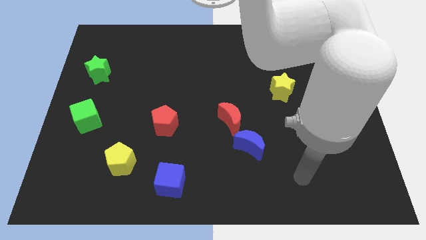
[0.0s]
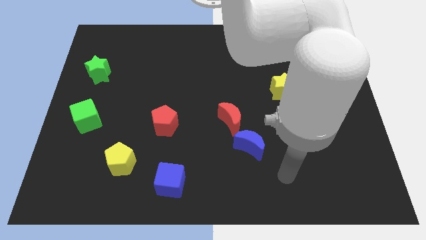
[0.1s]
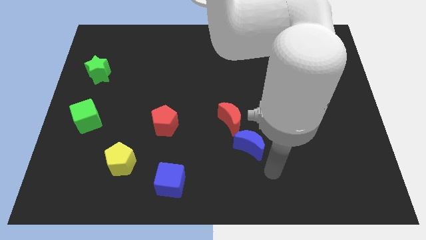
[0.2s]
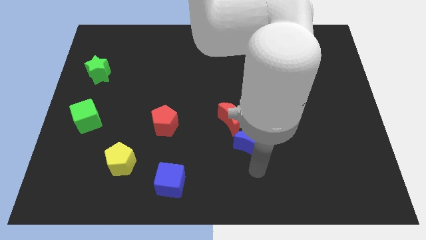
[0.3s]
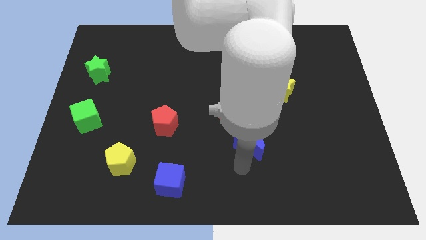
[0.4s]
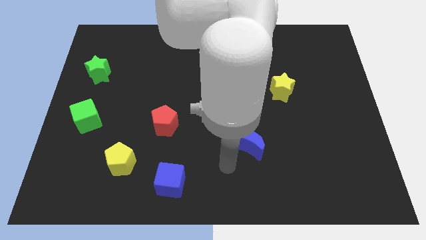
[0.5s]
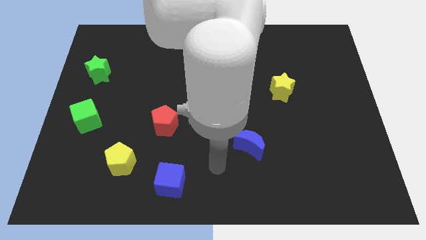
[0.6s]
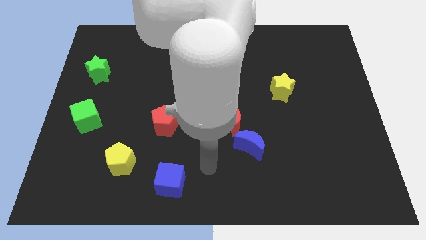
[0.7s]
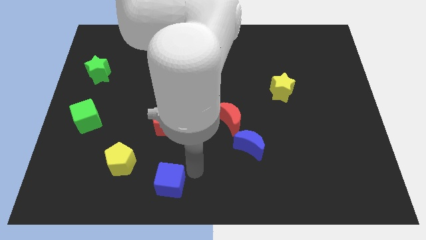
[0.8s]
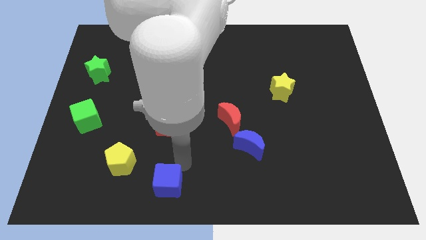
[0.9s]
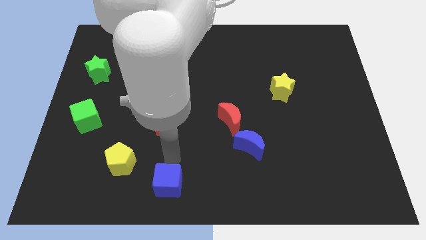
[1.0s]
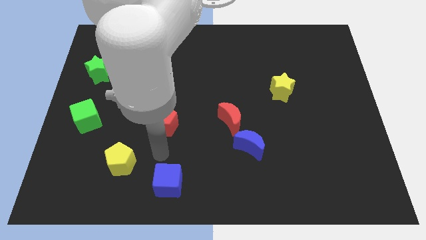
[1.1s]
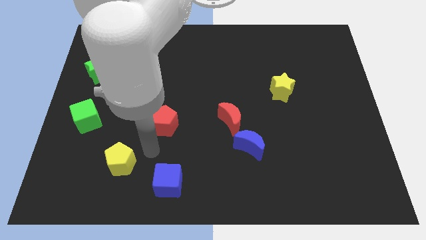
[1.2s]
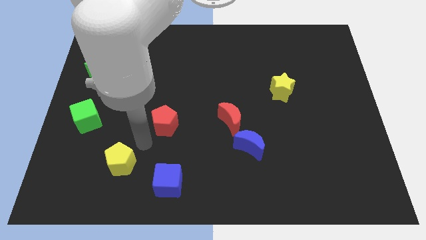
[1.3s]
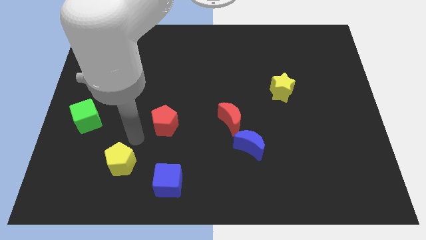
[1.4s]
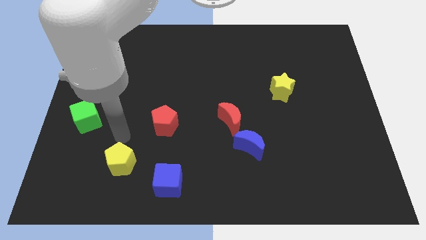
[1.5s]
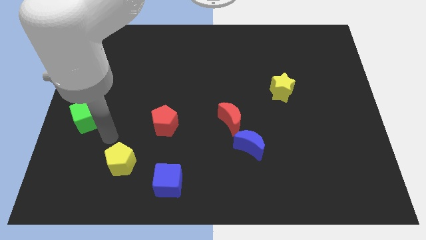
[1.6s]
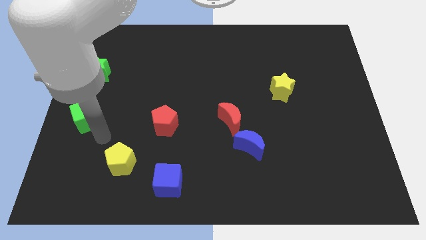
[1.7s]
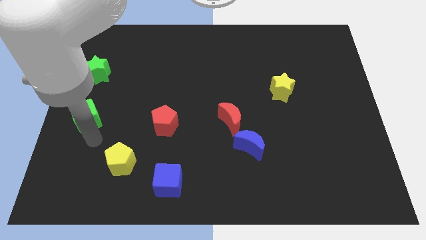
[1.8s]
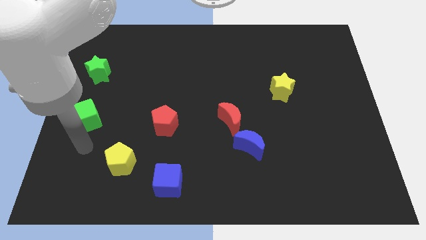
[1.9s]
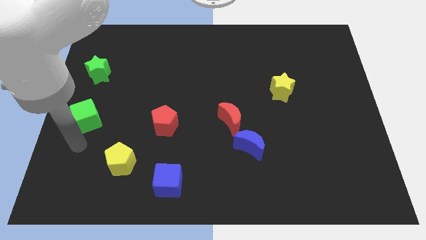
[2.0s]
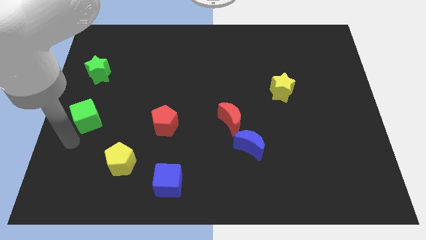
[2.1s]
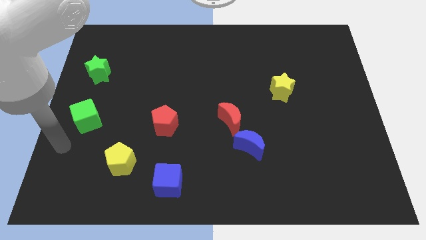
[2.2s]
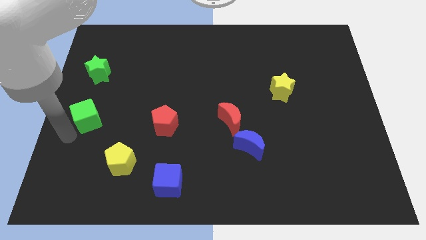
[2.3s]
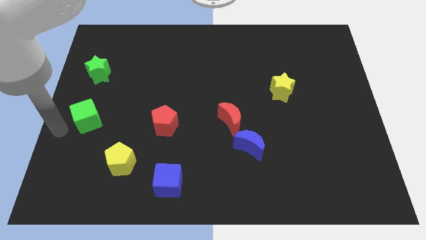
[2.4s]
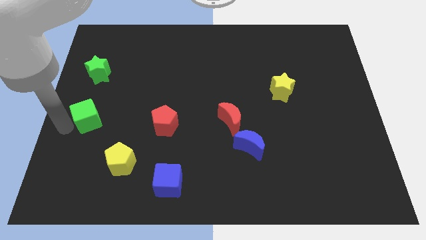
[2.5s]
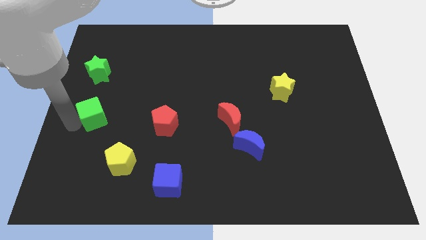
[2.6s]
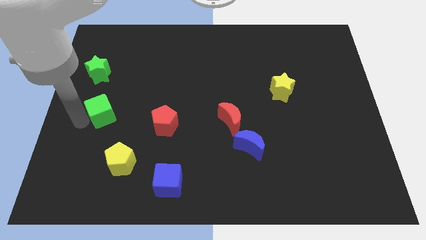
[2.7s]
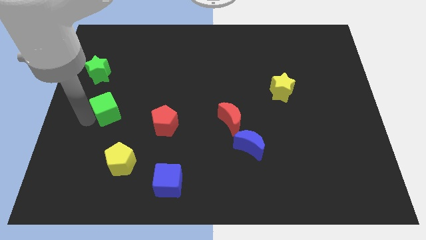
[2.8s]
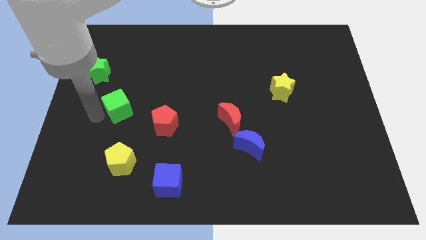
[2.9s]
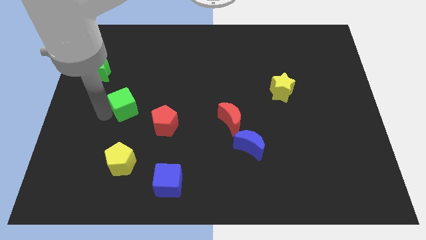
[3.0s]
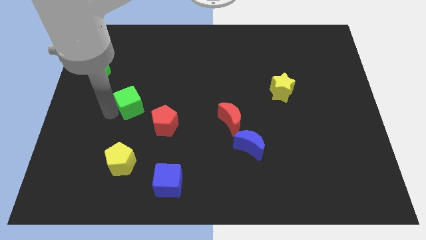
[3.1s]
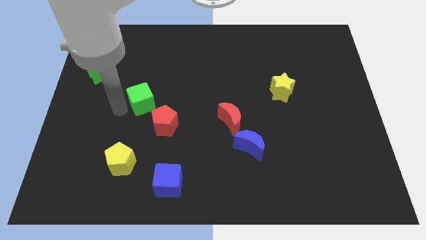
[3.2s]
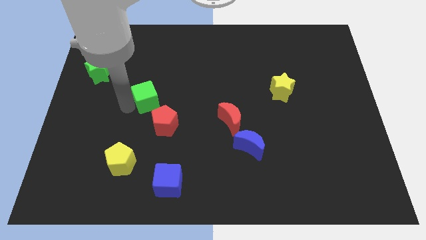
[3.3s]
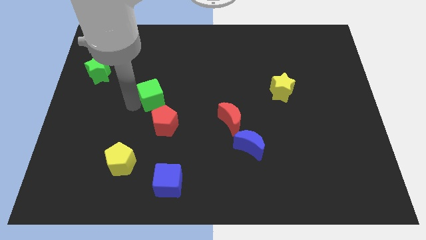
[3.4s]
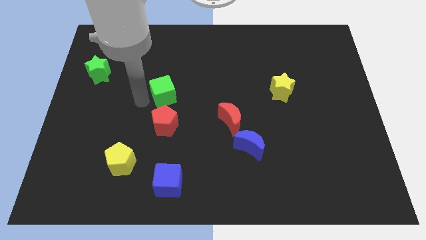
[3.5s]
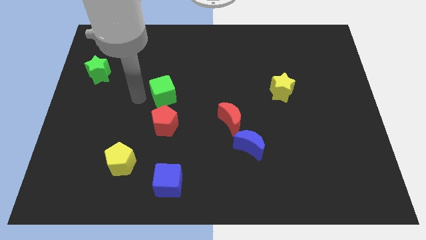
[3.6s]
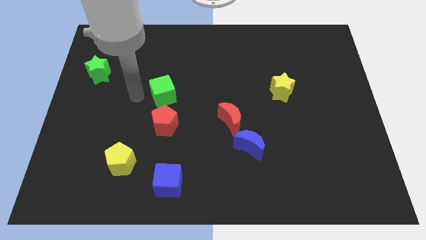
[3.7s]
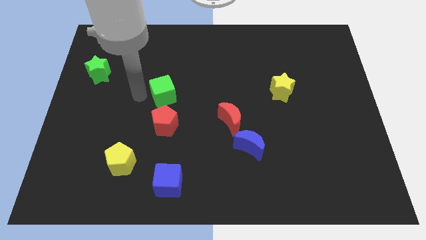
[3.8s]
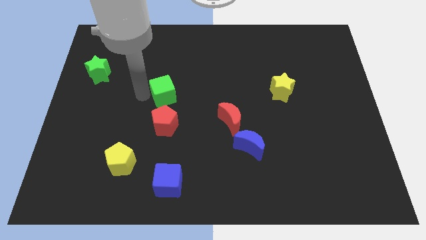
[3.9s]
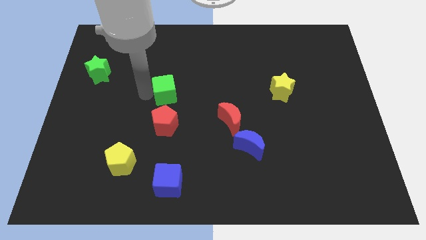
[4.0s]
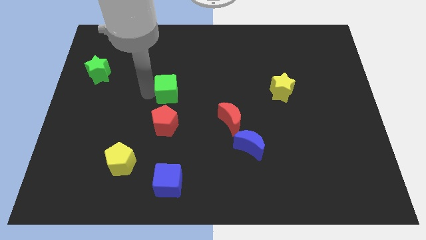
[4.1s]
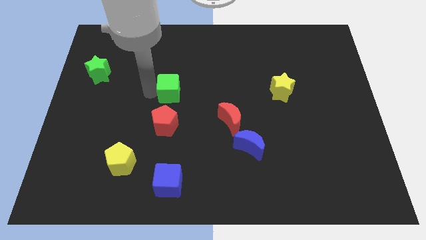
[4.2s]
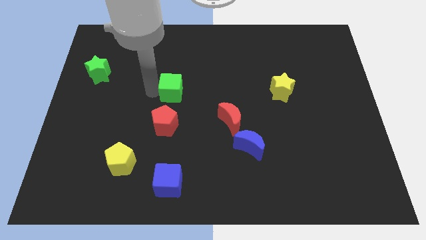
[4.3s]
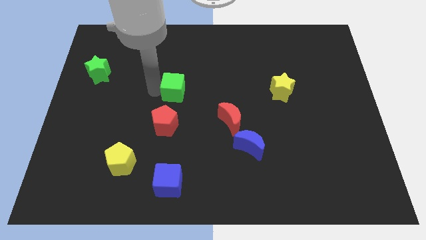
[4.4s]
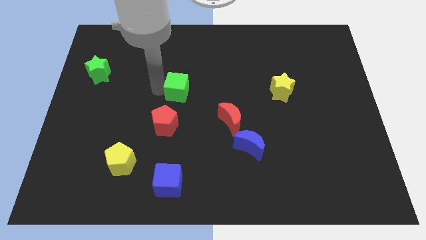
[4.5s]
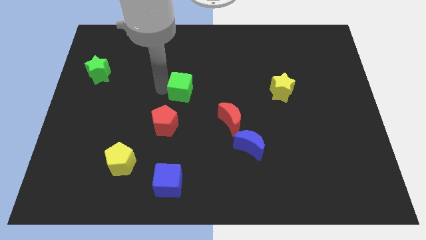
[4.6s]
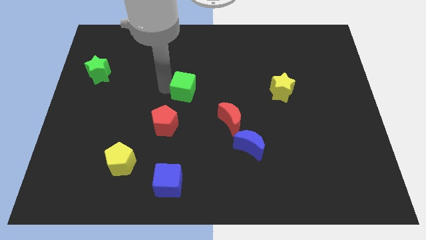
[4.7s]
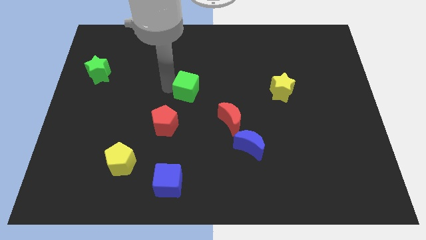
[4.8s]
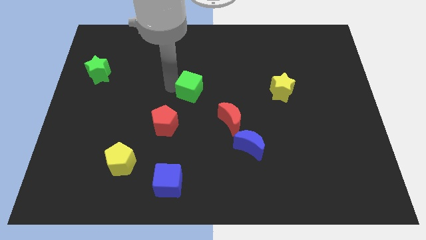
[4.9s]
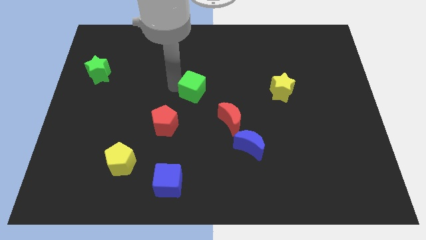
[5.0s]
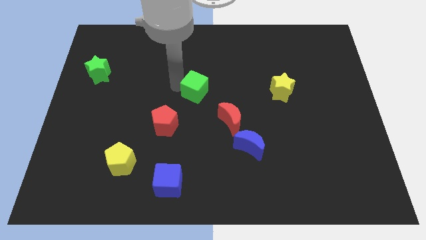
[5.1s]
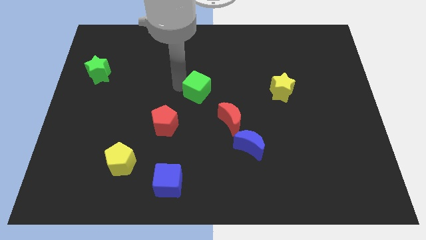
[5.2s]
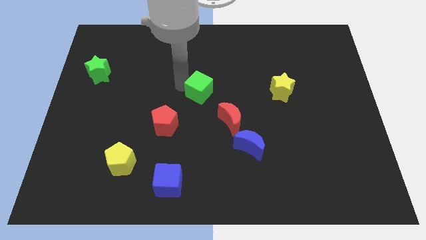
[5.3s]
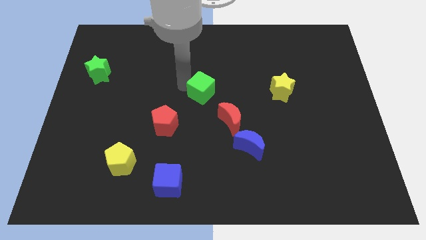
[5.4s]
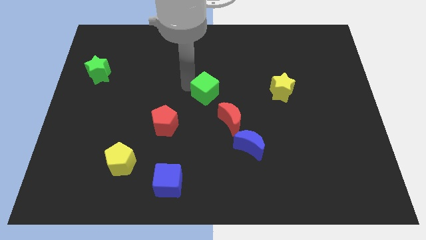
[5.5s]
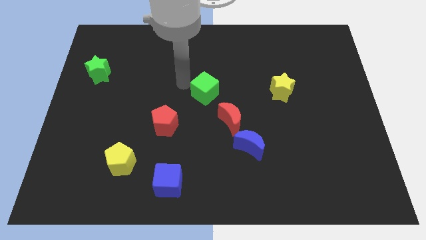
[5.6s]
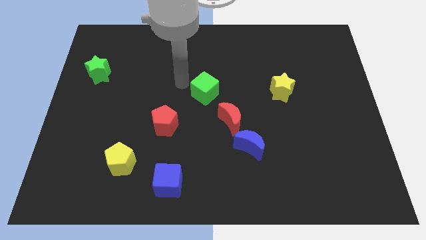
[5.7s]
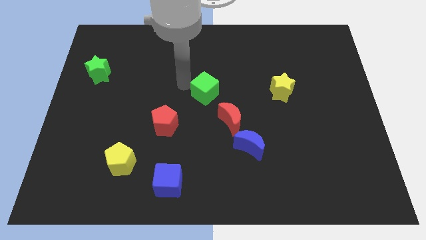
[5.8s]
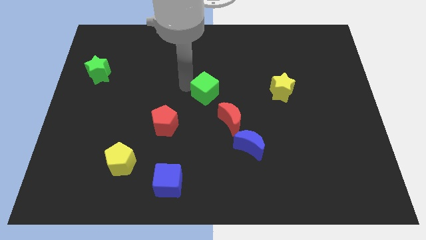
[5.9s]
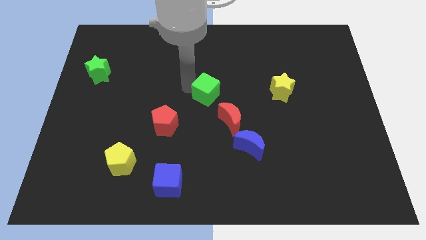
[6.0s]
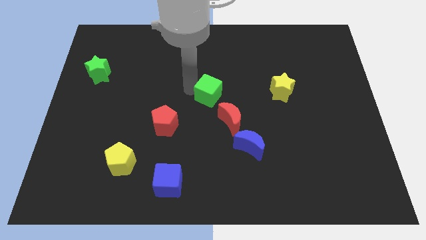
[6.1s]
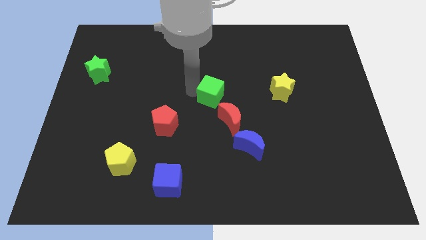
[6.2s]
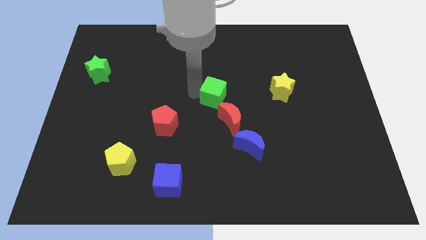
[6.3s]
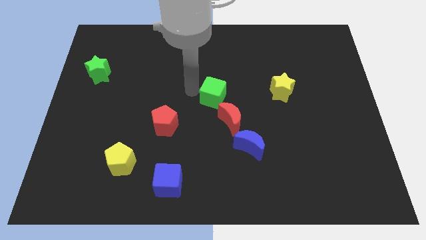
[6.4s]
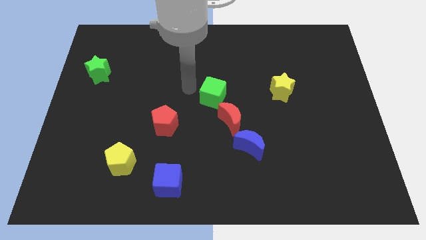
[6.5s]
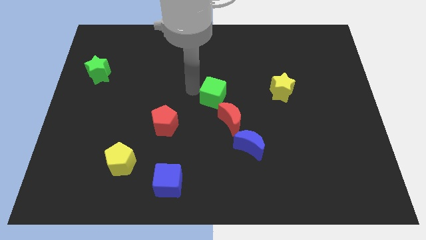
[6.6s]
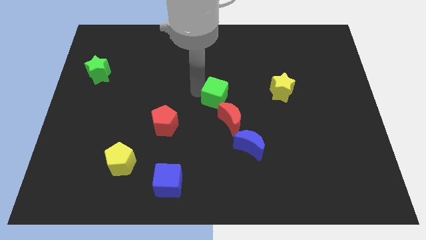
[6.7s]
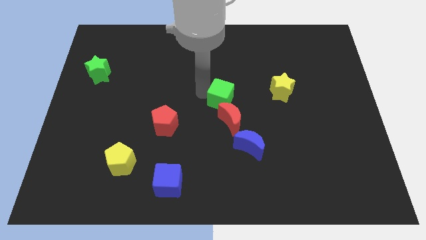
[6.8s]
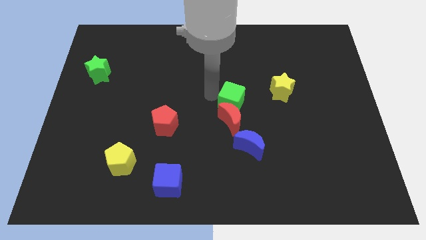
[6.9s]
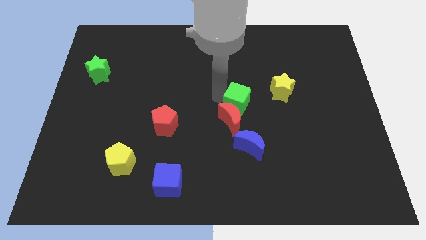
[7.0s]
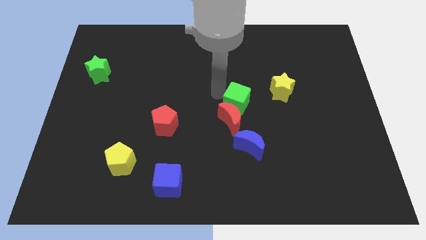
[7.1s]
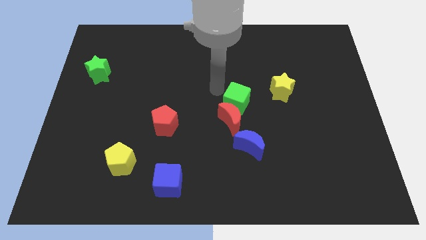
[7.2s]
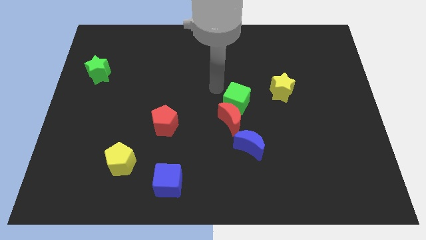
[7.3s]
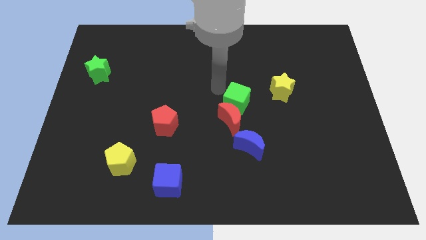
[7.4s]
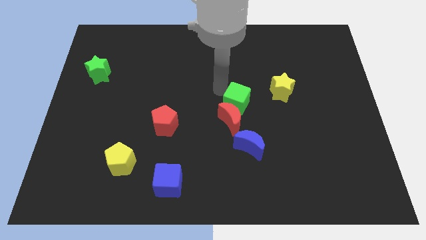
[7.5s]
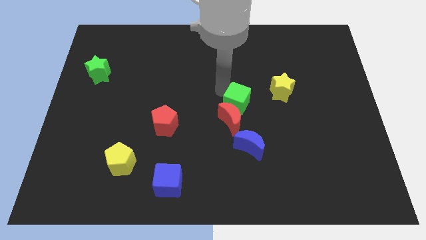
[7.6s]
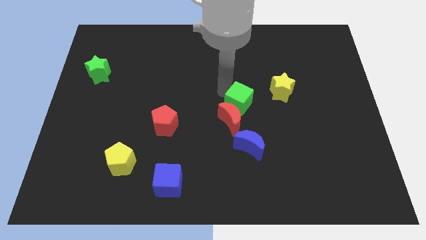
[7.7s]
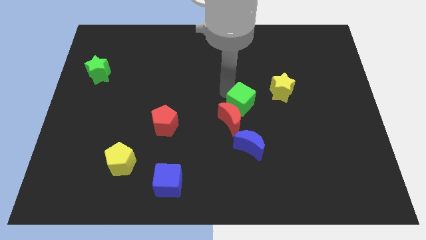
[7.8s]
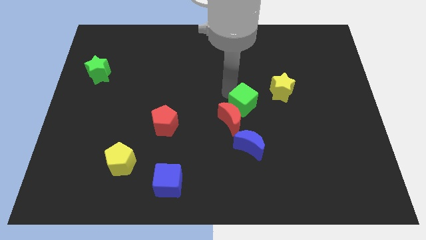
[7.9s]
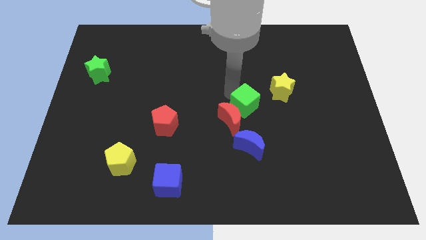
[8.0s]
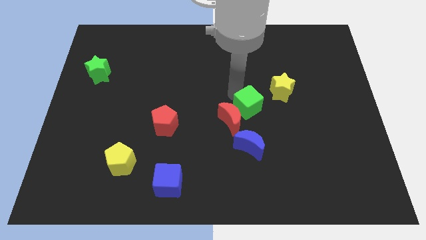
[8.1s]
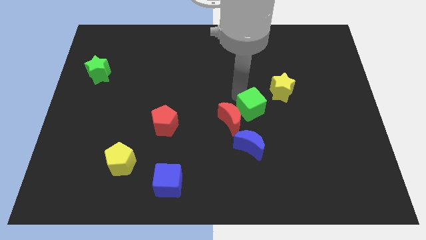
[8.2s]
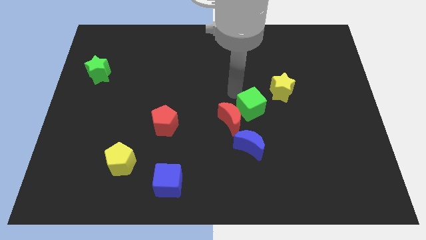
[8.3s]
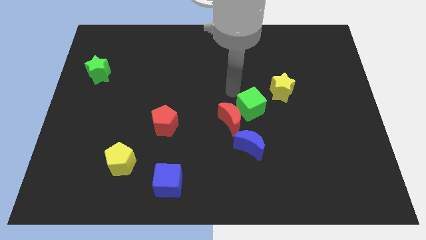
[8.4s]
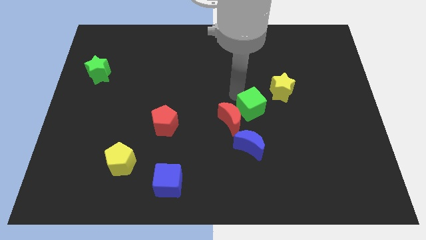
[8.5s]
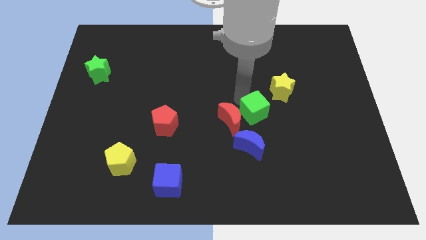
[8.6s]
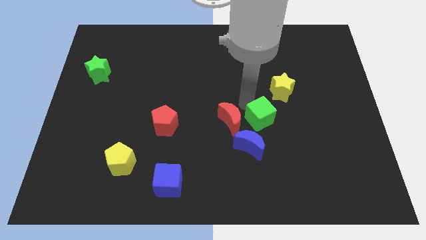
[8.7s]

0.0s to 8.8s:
slide the green cube diagonally up and to the right of the blue moon
